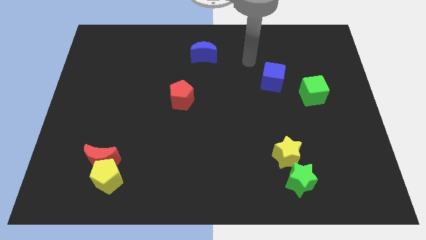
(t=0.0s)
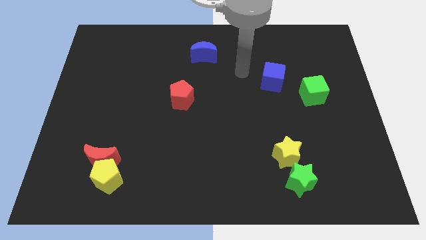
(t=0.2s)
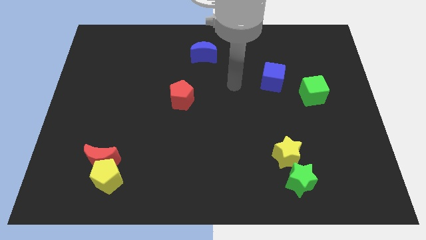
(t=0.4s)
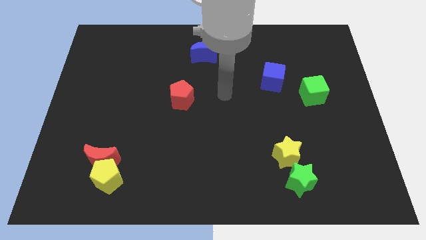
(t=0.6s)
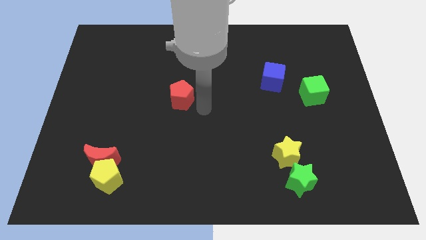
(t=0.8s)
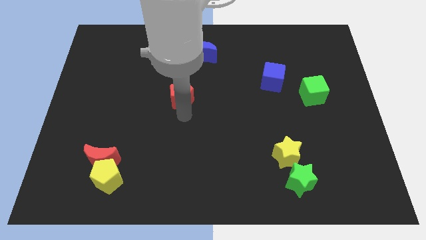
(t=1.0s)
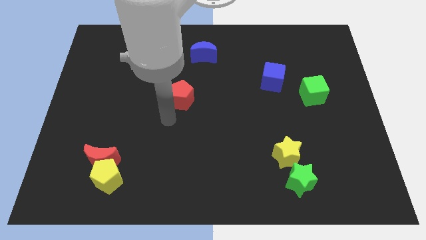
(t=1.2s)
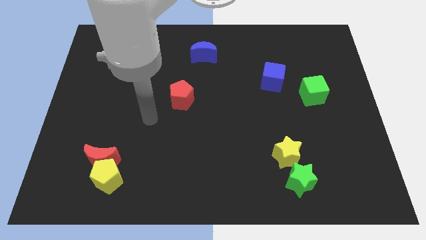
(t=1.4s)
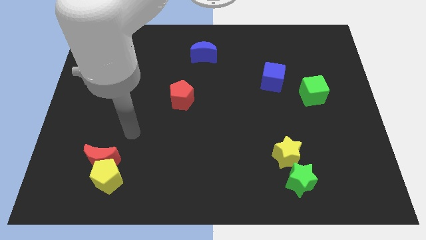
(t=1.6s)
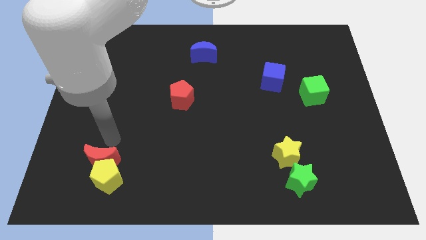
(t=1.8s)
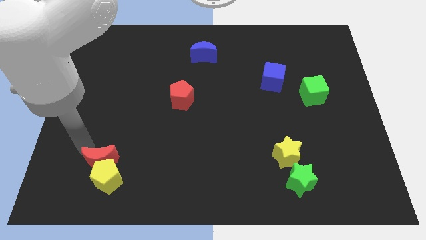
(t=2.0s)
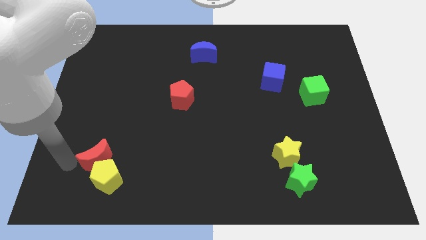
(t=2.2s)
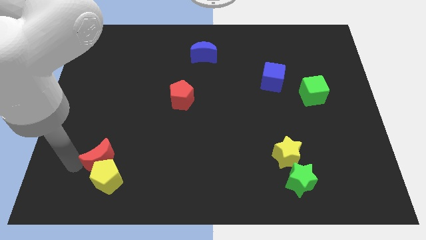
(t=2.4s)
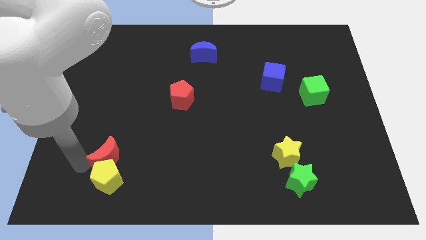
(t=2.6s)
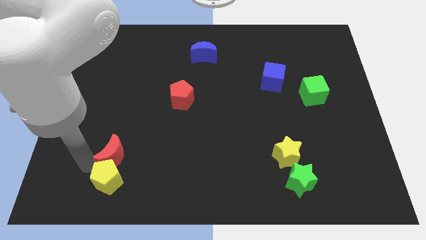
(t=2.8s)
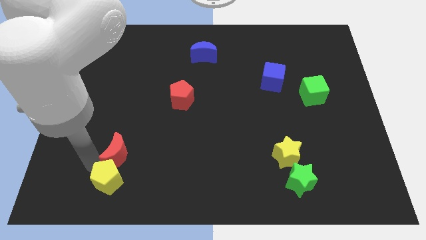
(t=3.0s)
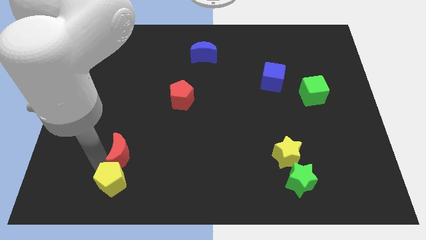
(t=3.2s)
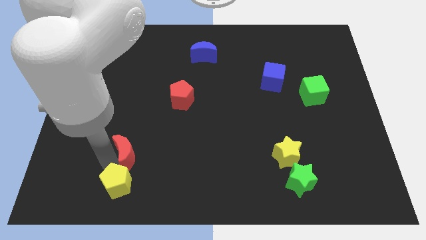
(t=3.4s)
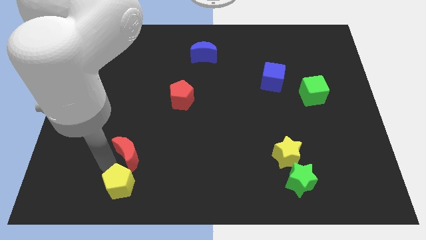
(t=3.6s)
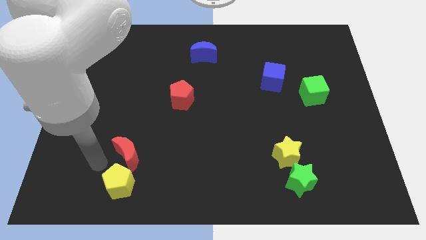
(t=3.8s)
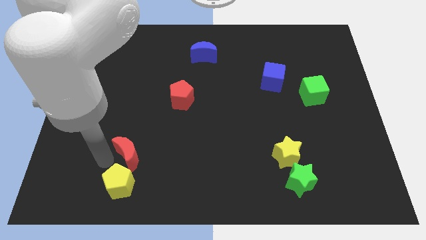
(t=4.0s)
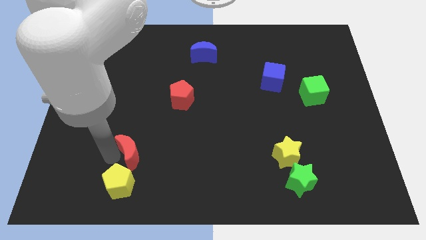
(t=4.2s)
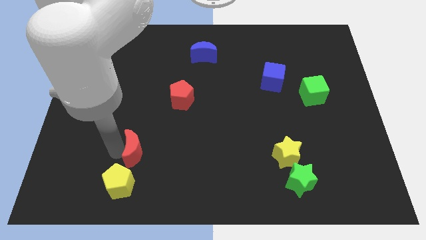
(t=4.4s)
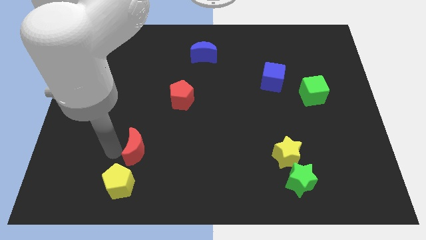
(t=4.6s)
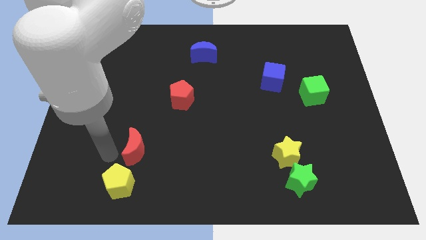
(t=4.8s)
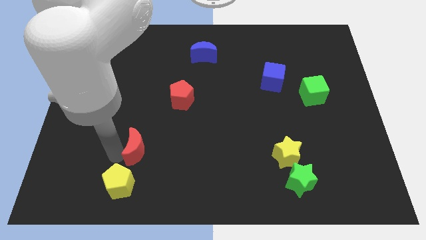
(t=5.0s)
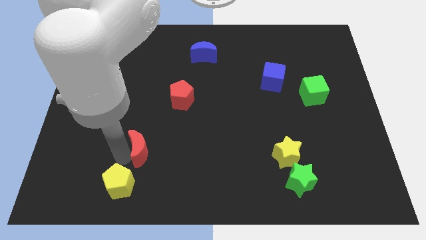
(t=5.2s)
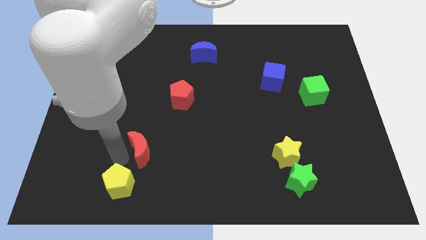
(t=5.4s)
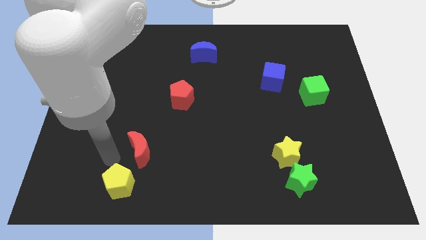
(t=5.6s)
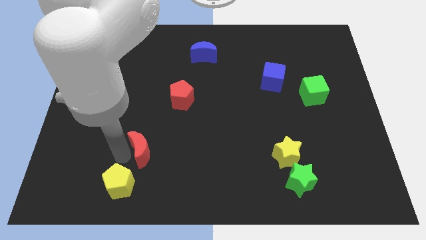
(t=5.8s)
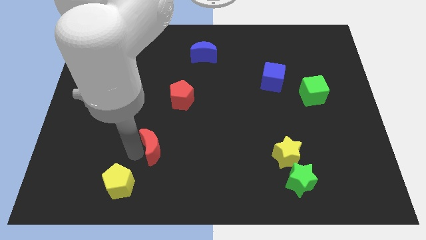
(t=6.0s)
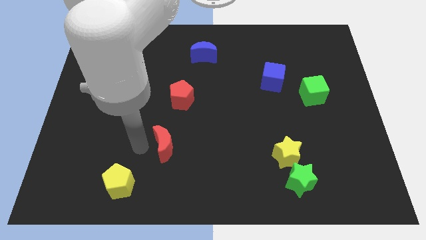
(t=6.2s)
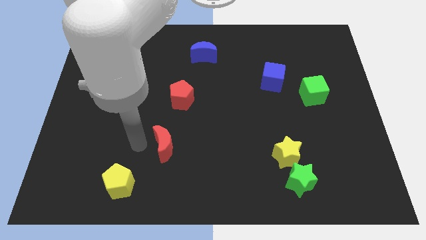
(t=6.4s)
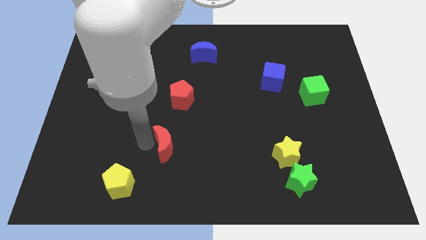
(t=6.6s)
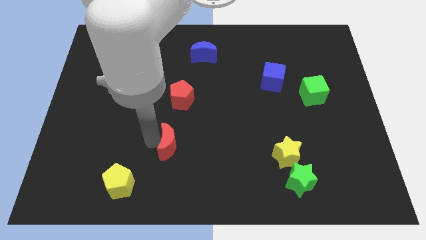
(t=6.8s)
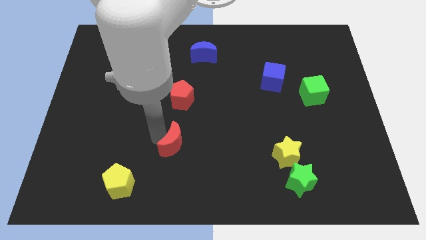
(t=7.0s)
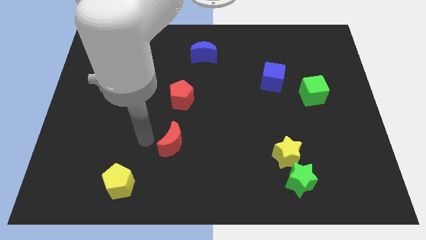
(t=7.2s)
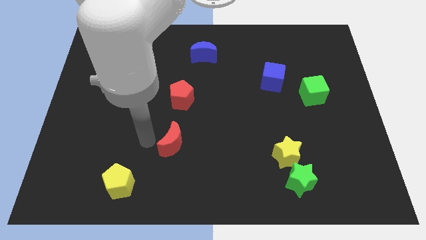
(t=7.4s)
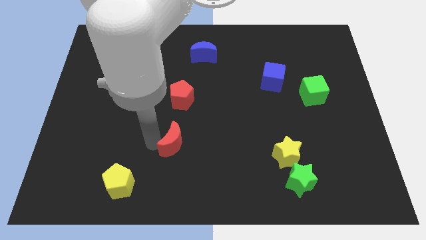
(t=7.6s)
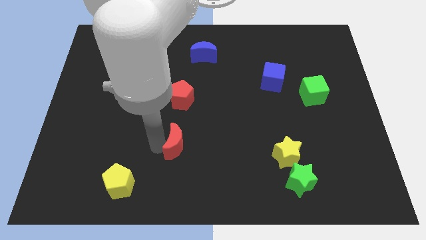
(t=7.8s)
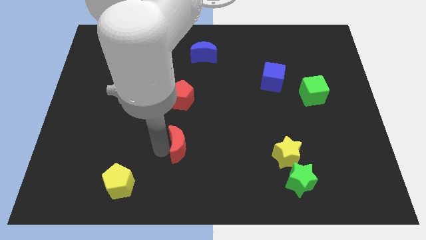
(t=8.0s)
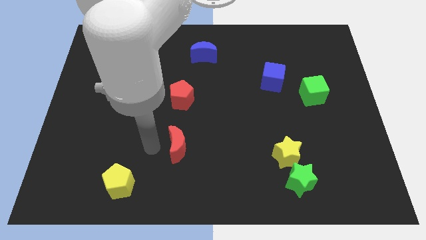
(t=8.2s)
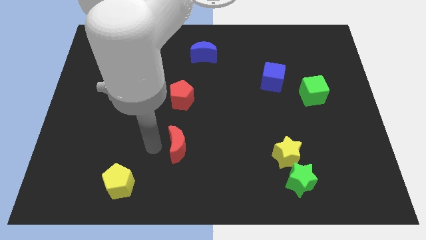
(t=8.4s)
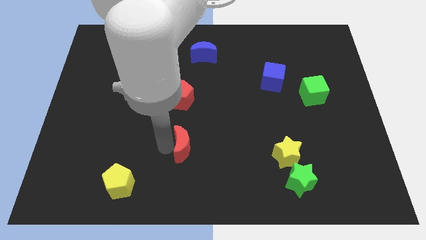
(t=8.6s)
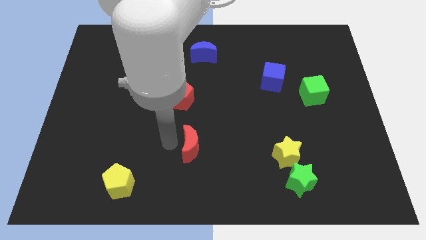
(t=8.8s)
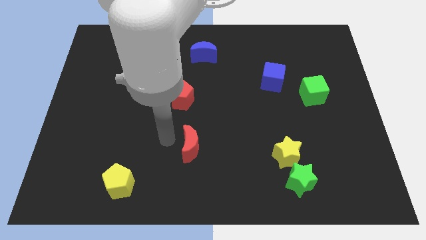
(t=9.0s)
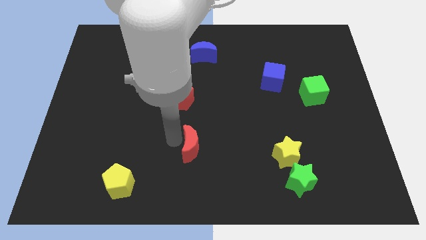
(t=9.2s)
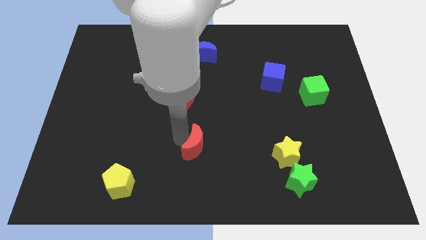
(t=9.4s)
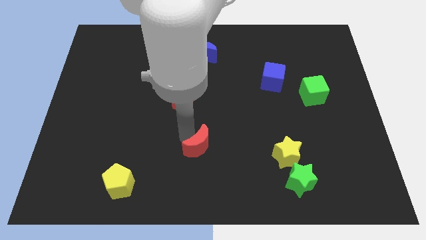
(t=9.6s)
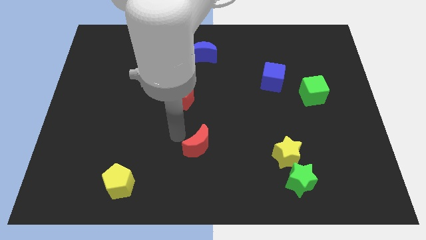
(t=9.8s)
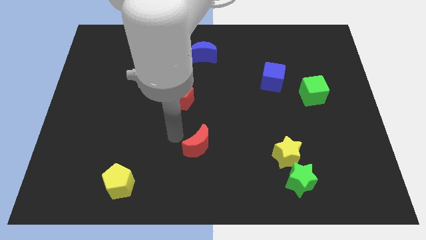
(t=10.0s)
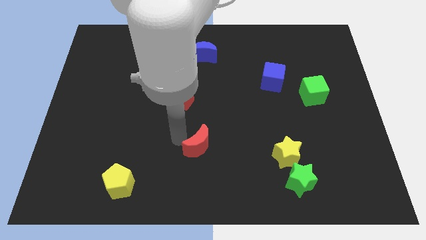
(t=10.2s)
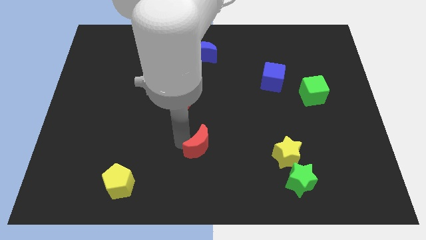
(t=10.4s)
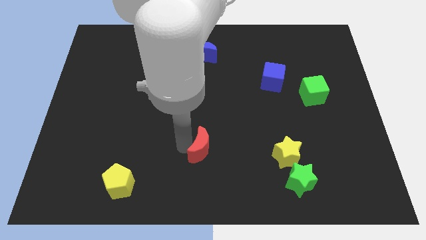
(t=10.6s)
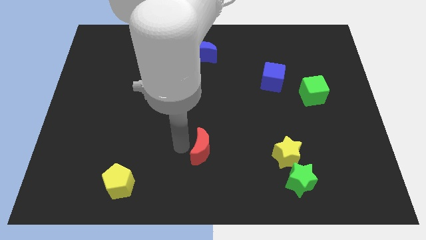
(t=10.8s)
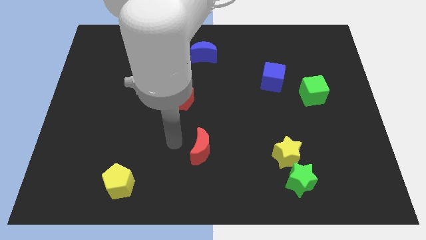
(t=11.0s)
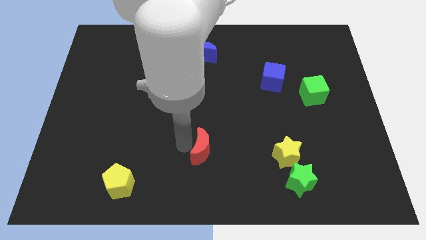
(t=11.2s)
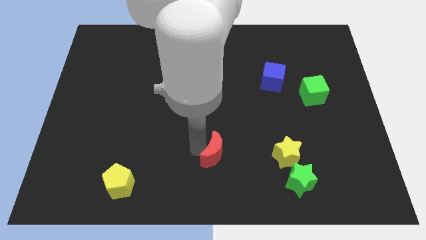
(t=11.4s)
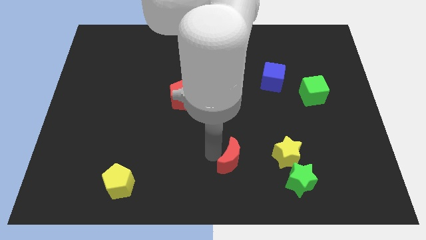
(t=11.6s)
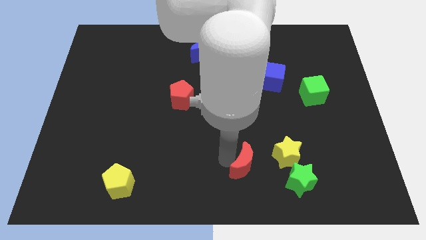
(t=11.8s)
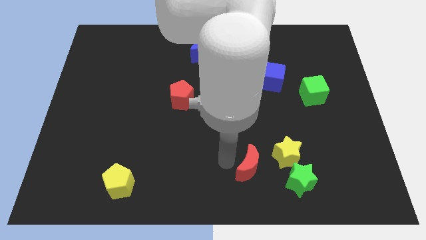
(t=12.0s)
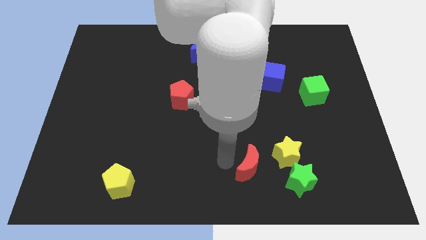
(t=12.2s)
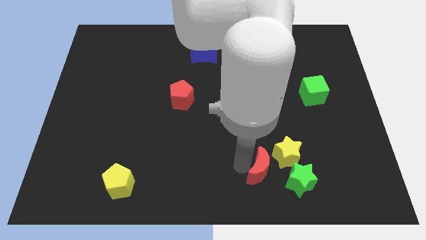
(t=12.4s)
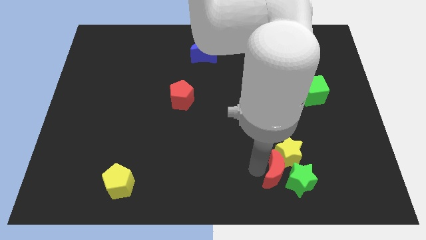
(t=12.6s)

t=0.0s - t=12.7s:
push the red moon towards the green star

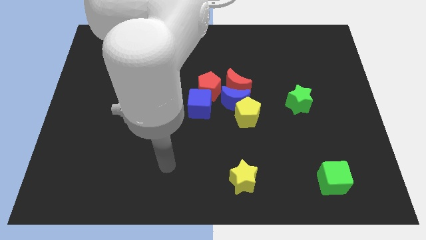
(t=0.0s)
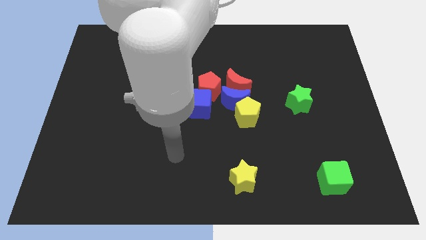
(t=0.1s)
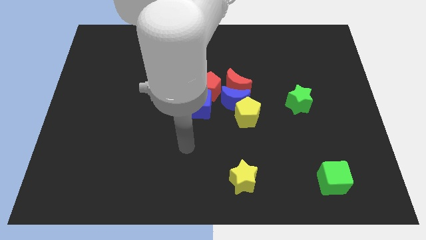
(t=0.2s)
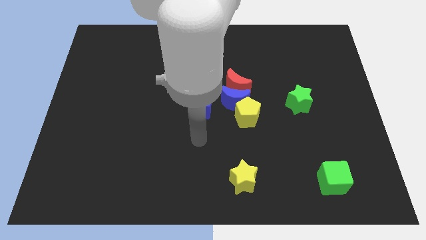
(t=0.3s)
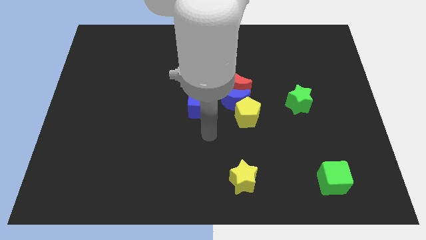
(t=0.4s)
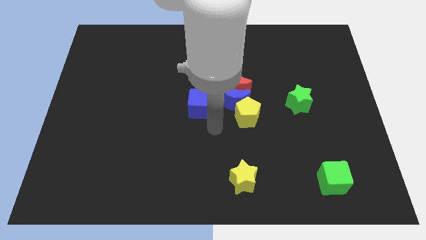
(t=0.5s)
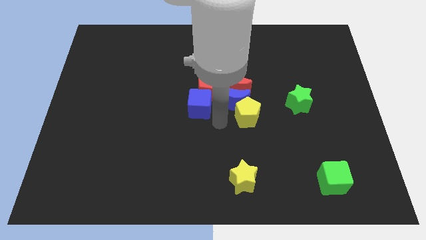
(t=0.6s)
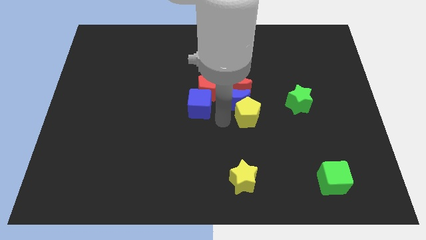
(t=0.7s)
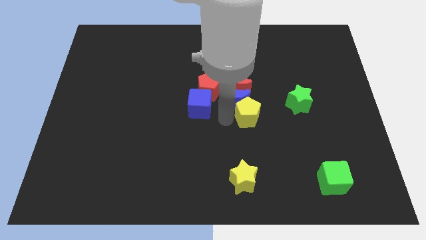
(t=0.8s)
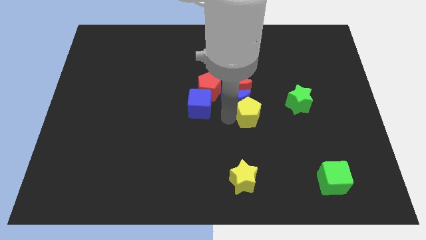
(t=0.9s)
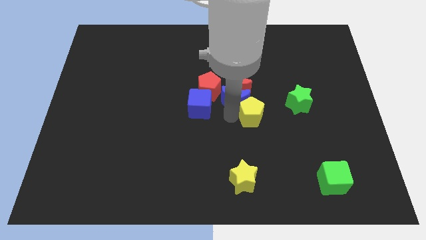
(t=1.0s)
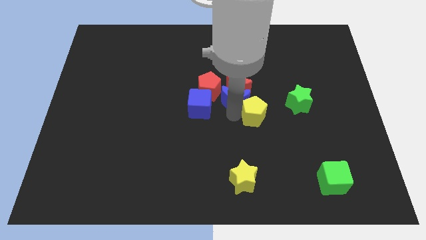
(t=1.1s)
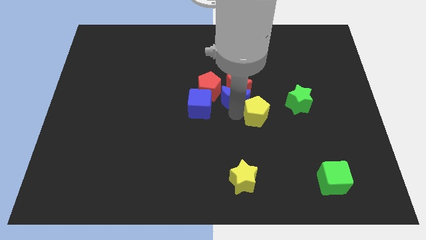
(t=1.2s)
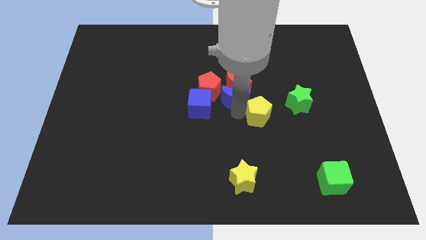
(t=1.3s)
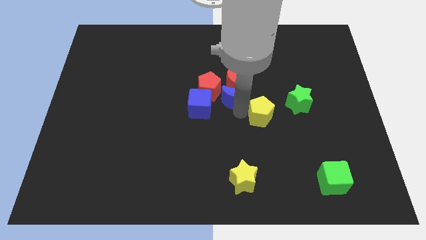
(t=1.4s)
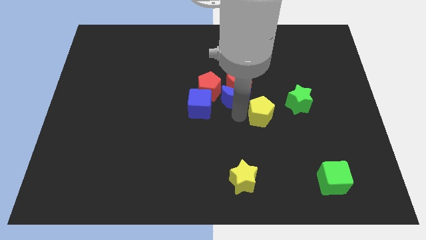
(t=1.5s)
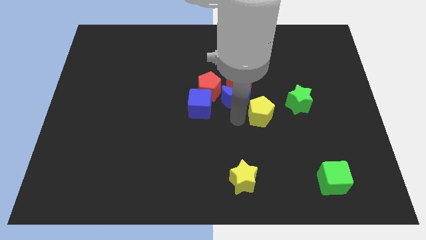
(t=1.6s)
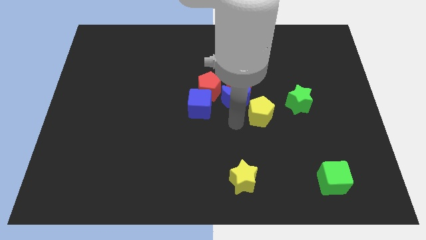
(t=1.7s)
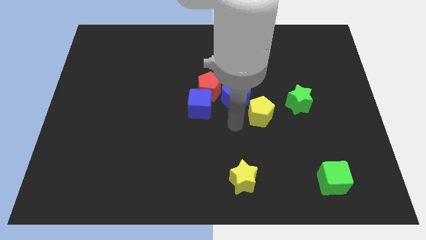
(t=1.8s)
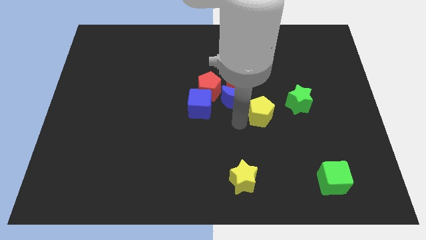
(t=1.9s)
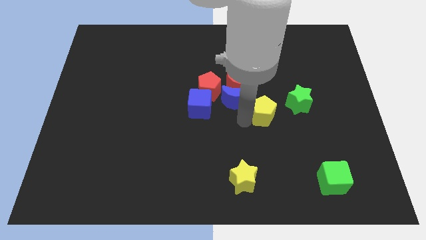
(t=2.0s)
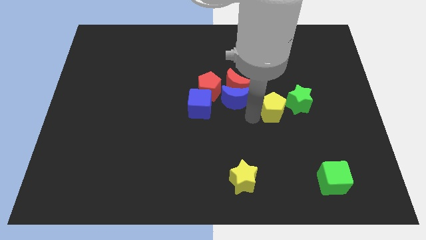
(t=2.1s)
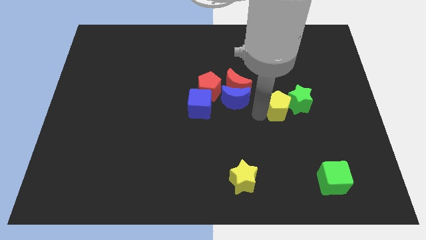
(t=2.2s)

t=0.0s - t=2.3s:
slide the yellow pentagon close to the green star
